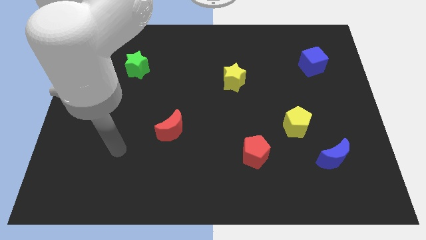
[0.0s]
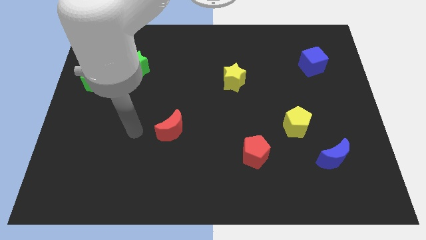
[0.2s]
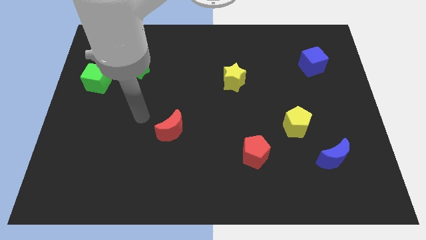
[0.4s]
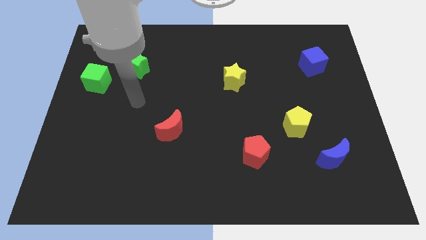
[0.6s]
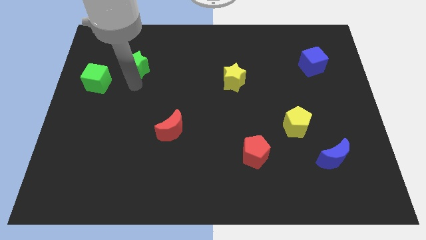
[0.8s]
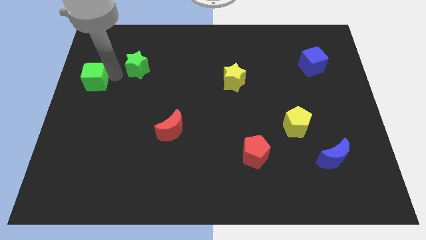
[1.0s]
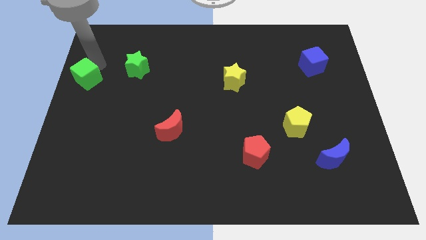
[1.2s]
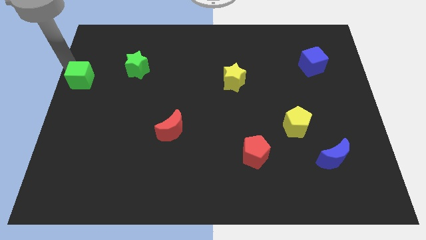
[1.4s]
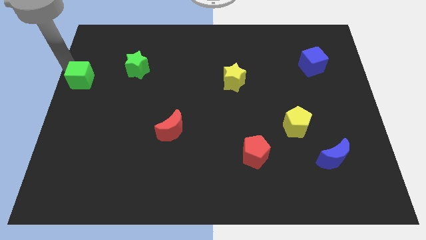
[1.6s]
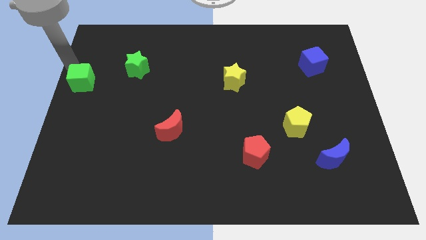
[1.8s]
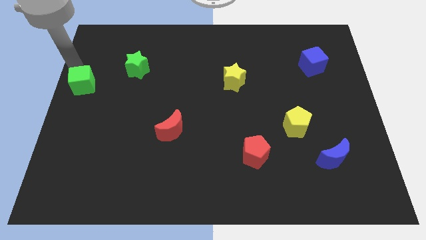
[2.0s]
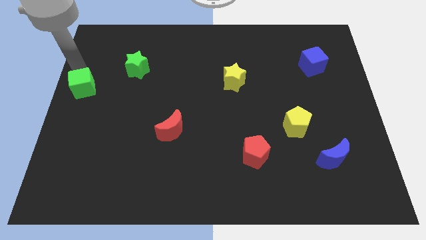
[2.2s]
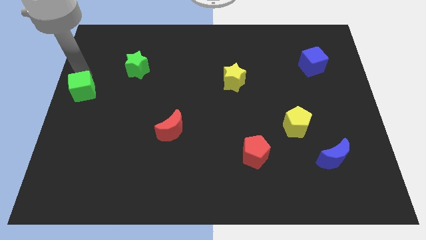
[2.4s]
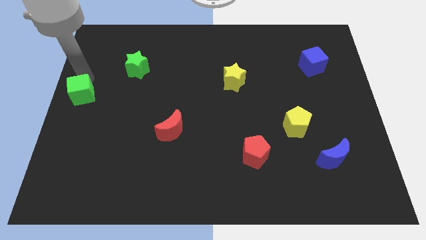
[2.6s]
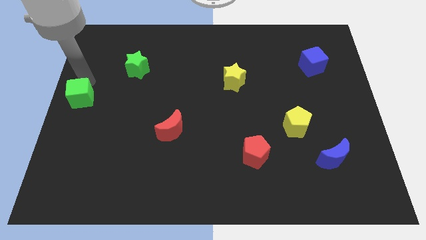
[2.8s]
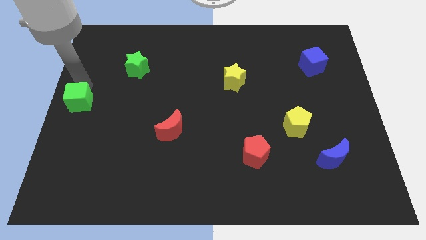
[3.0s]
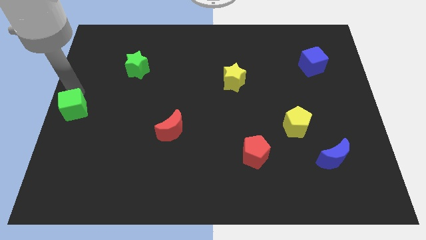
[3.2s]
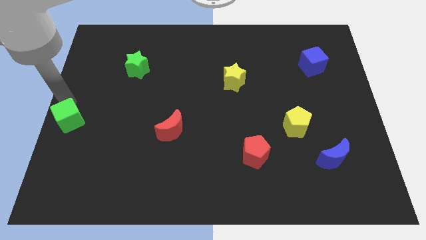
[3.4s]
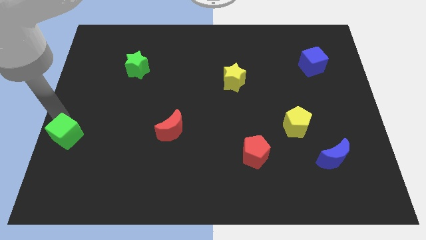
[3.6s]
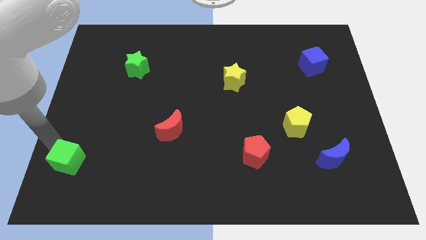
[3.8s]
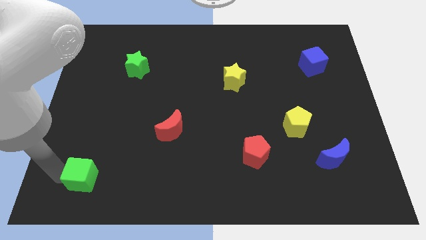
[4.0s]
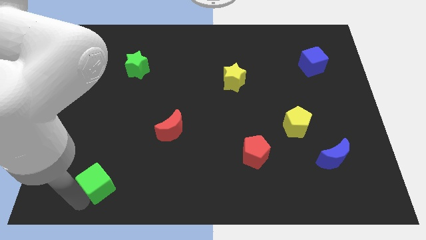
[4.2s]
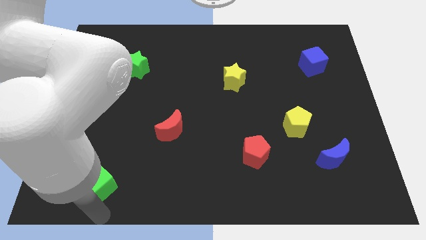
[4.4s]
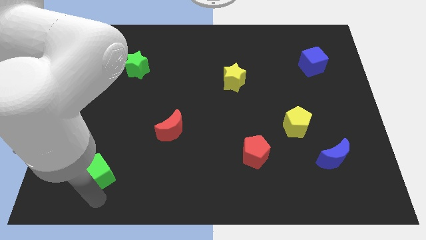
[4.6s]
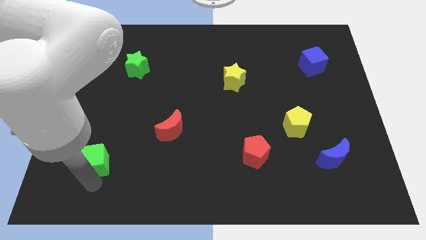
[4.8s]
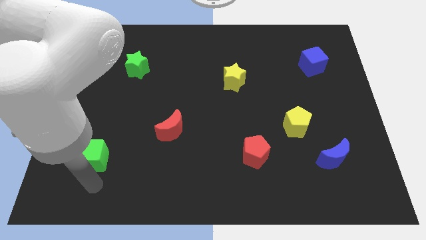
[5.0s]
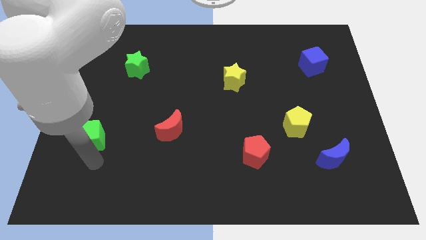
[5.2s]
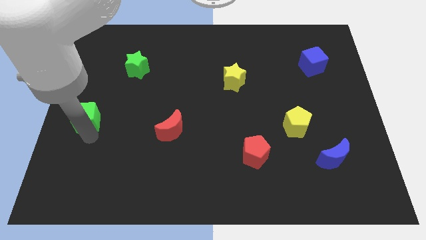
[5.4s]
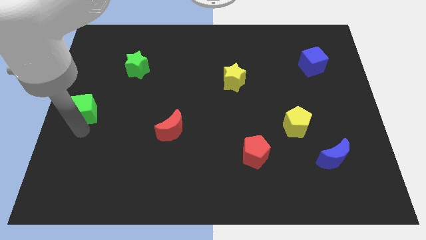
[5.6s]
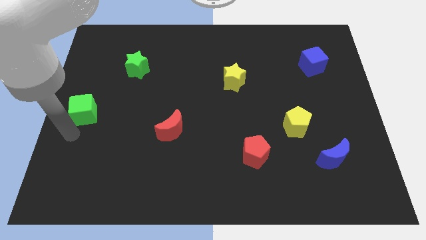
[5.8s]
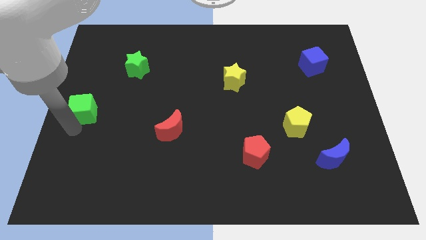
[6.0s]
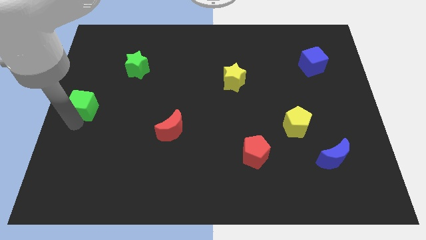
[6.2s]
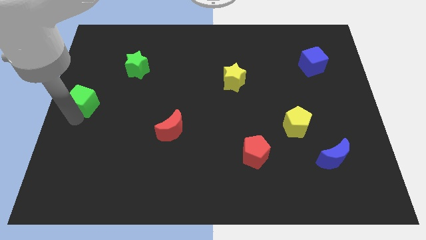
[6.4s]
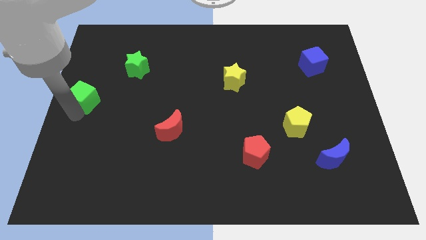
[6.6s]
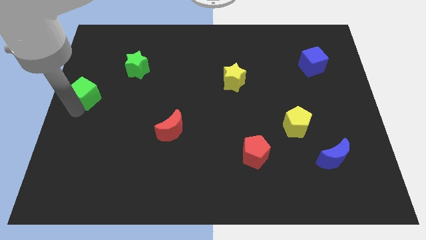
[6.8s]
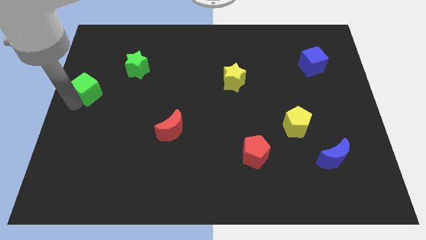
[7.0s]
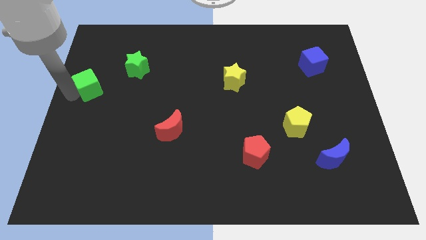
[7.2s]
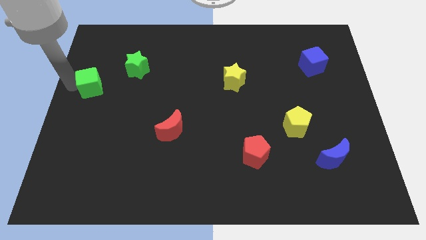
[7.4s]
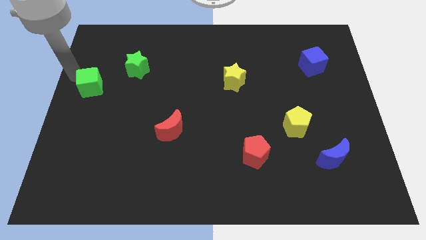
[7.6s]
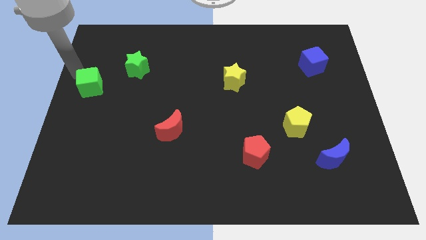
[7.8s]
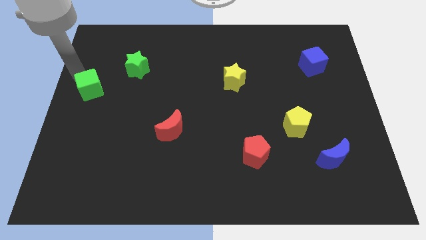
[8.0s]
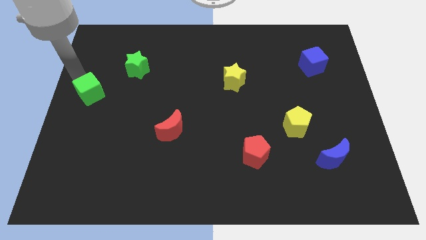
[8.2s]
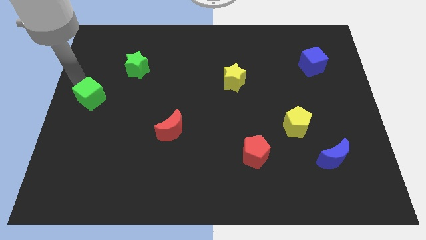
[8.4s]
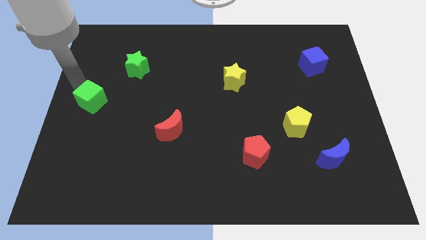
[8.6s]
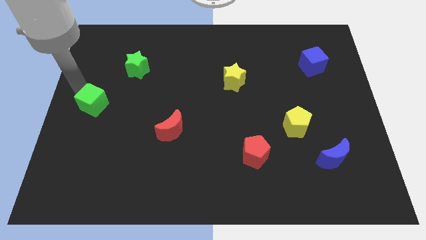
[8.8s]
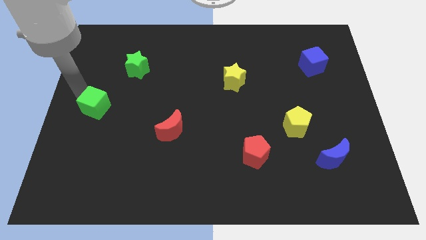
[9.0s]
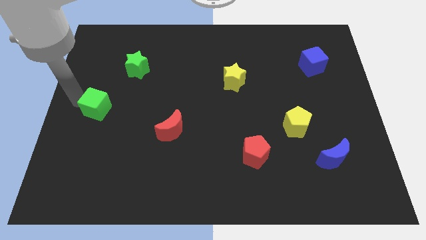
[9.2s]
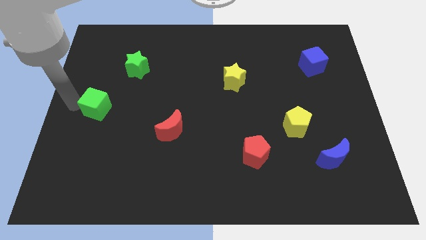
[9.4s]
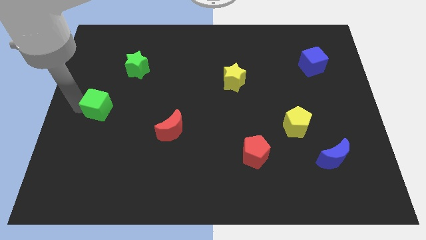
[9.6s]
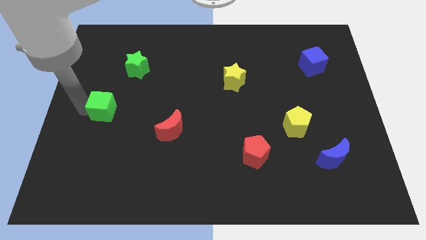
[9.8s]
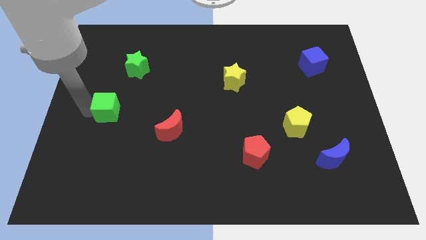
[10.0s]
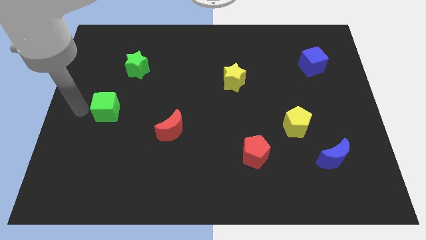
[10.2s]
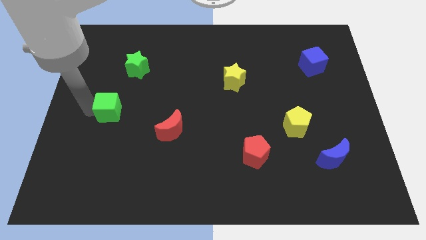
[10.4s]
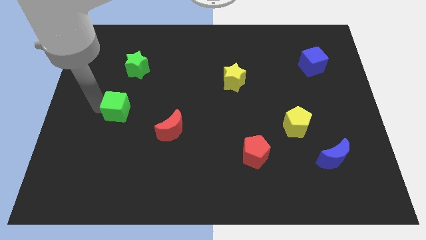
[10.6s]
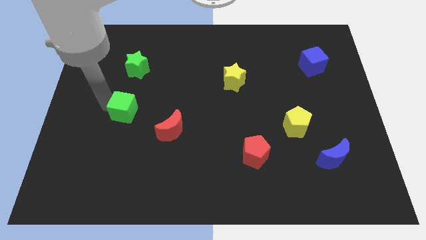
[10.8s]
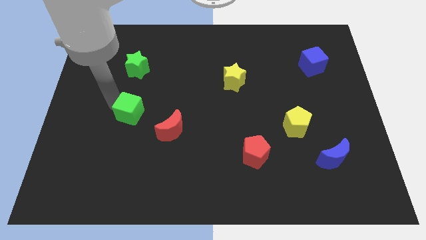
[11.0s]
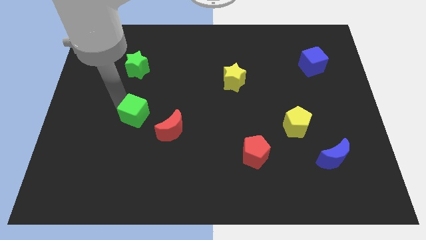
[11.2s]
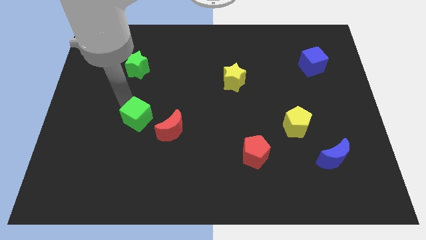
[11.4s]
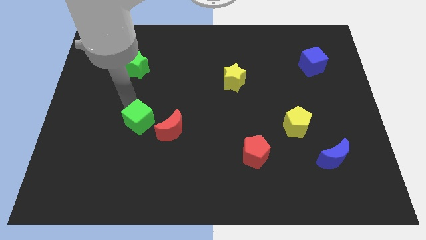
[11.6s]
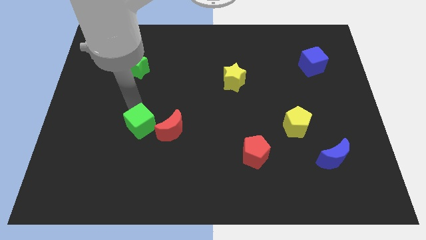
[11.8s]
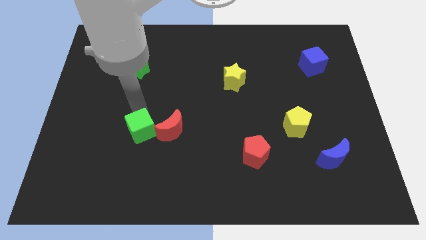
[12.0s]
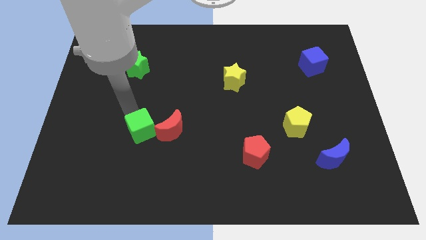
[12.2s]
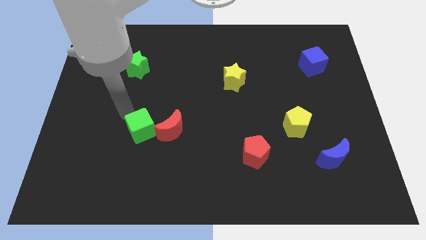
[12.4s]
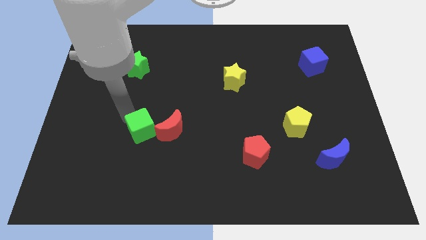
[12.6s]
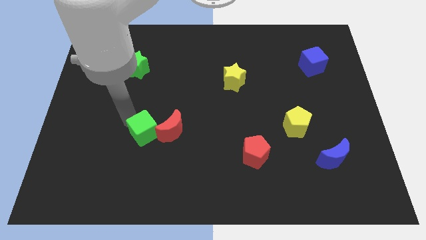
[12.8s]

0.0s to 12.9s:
move the green cube downwards and right diagonally

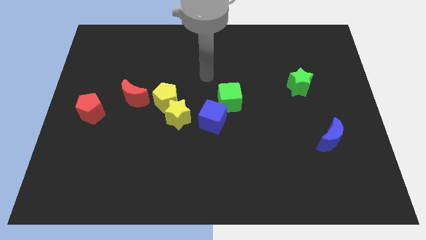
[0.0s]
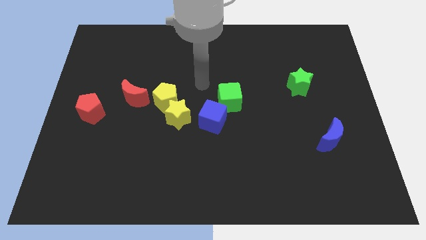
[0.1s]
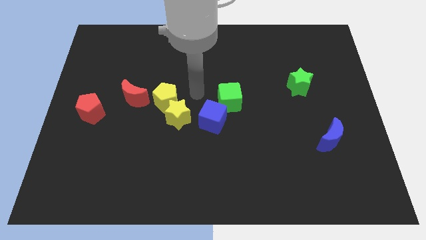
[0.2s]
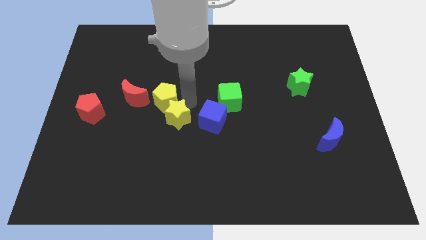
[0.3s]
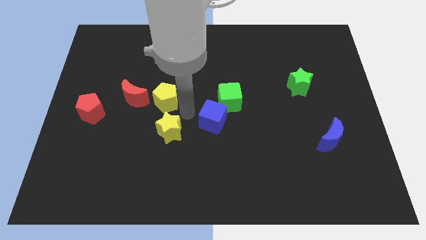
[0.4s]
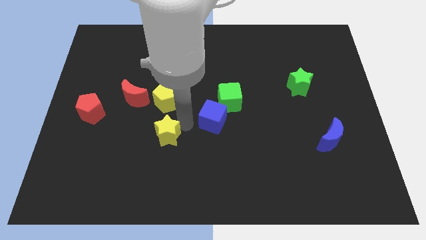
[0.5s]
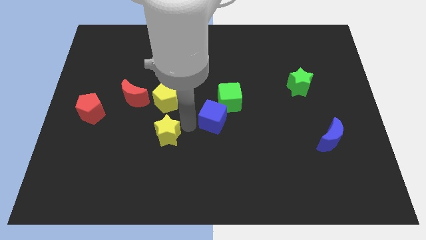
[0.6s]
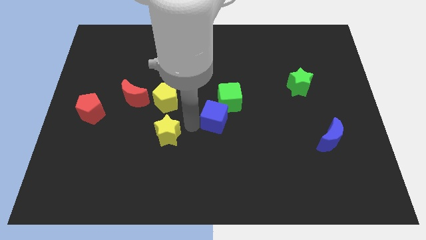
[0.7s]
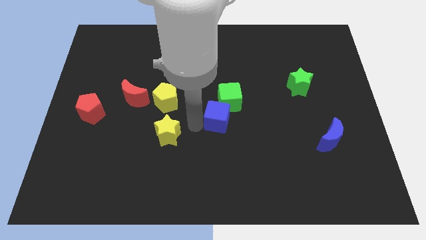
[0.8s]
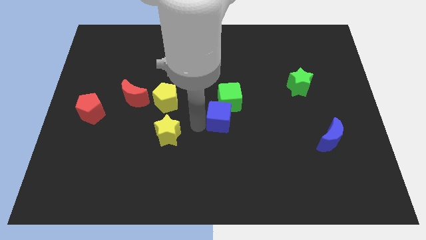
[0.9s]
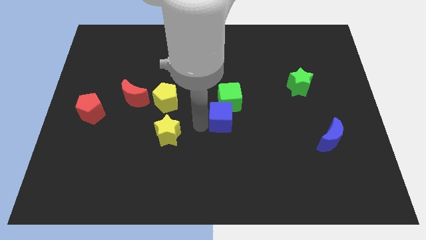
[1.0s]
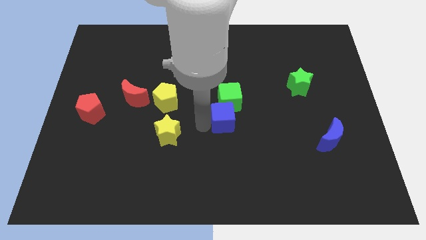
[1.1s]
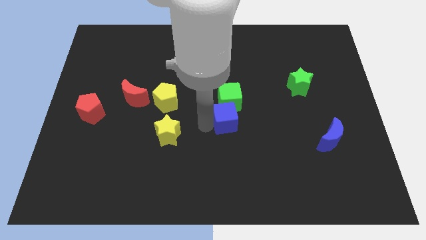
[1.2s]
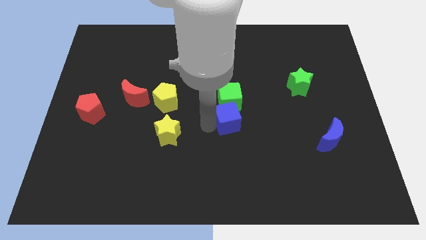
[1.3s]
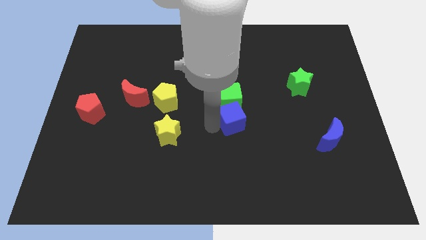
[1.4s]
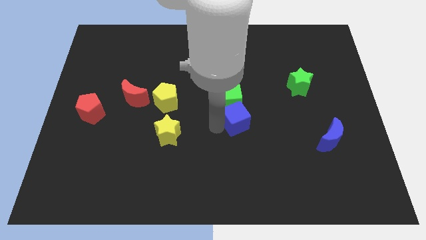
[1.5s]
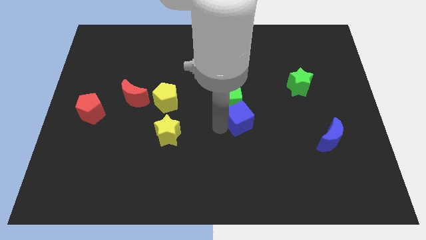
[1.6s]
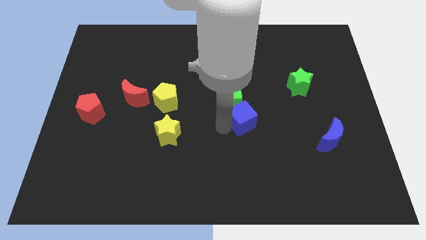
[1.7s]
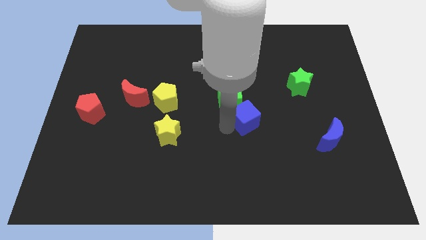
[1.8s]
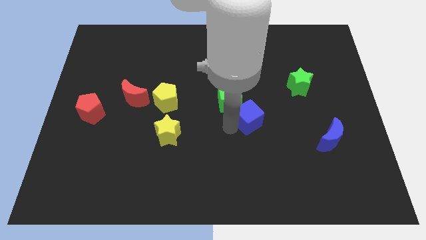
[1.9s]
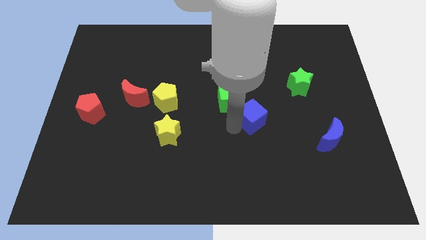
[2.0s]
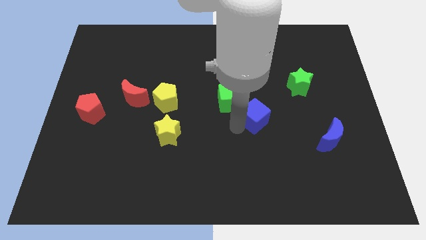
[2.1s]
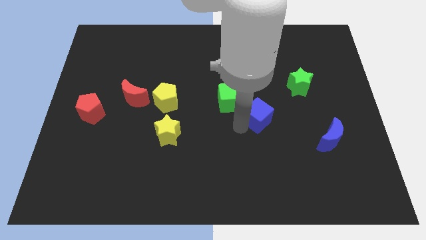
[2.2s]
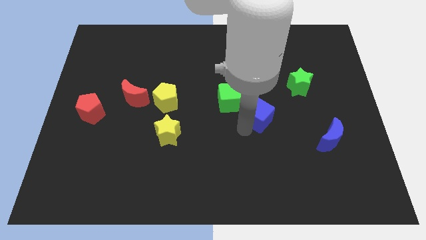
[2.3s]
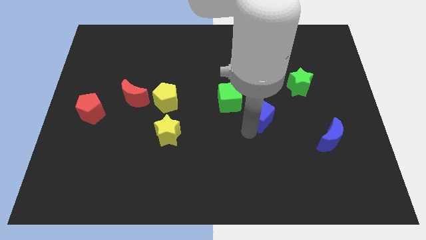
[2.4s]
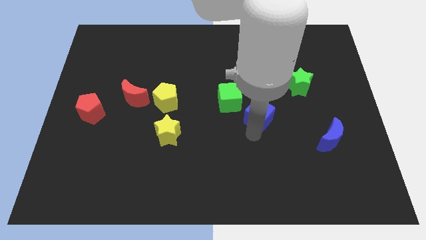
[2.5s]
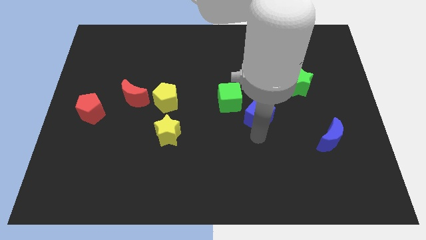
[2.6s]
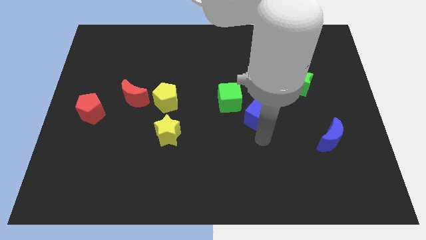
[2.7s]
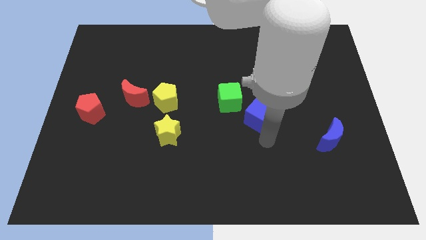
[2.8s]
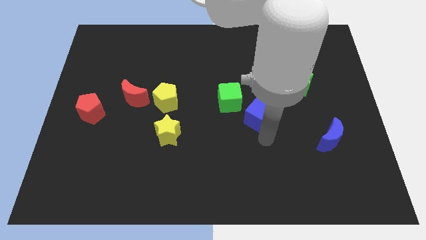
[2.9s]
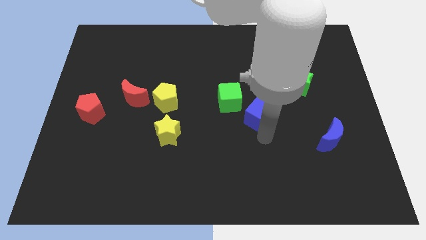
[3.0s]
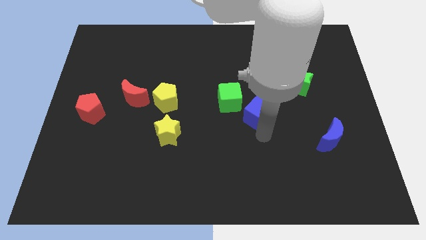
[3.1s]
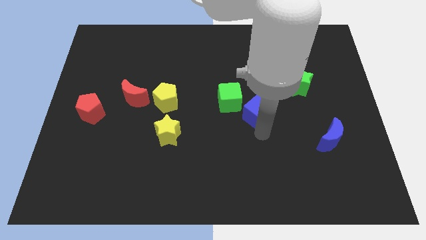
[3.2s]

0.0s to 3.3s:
slightly move the blue cube up and then right
